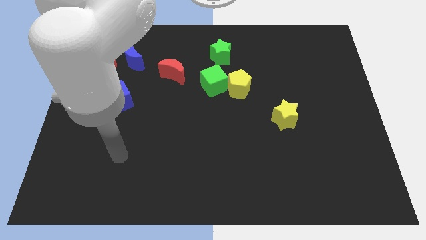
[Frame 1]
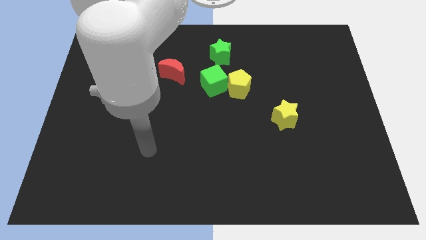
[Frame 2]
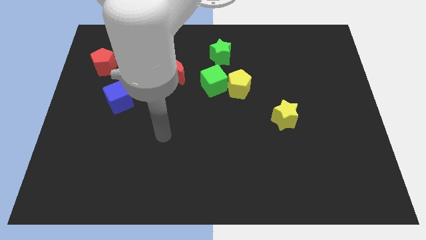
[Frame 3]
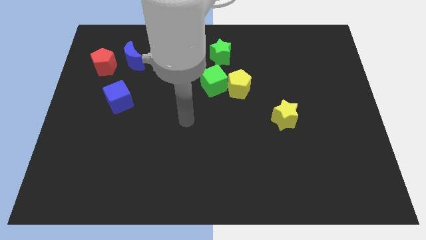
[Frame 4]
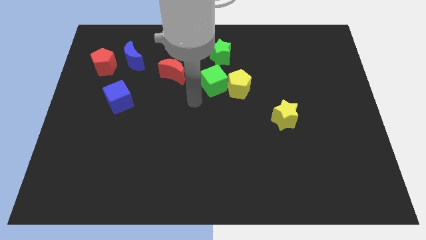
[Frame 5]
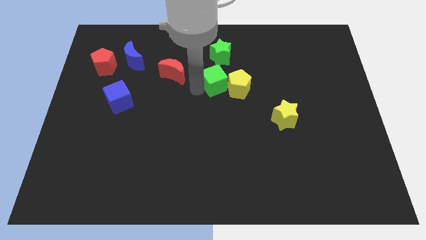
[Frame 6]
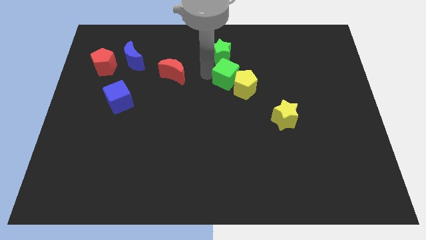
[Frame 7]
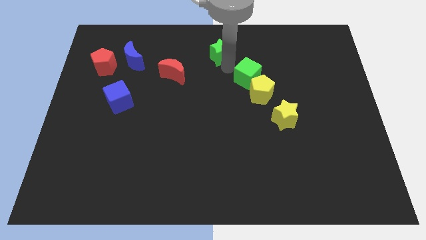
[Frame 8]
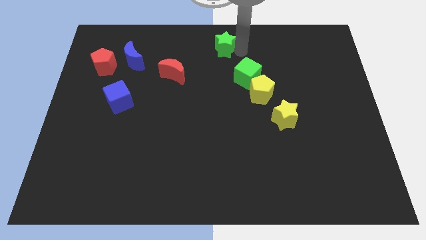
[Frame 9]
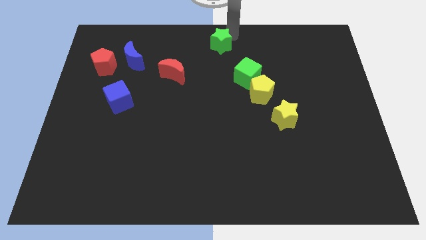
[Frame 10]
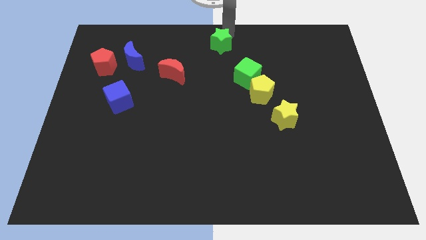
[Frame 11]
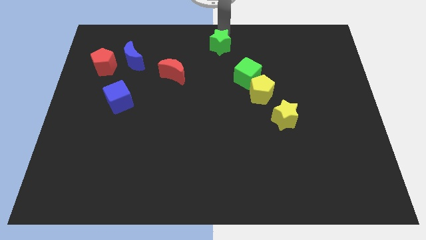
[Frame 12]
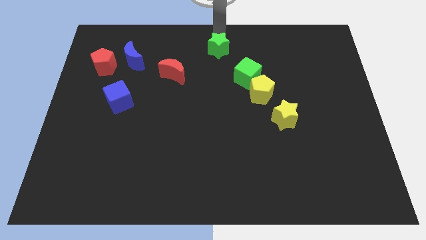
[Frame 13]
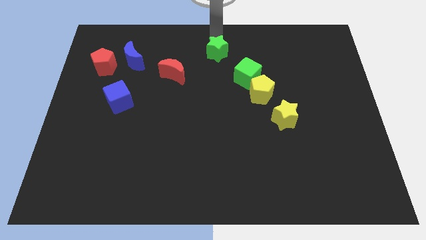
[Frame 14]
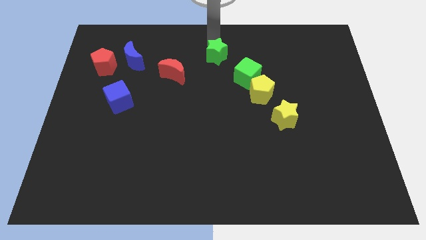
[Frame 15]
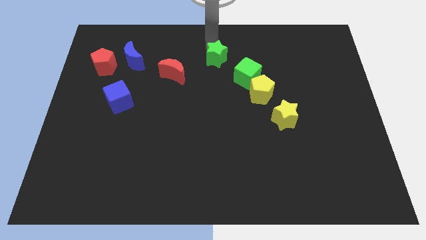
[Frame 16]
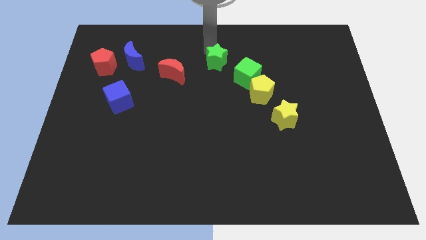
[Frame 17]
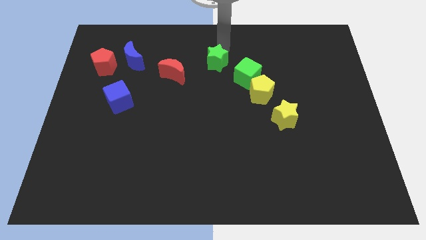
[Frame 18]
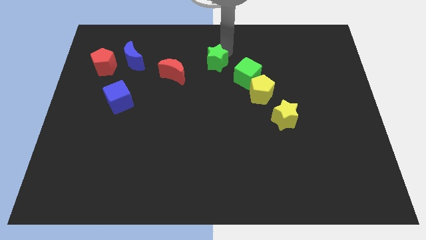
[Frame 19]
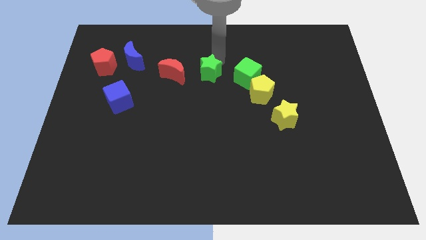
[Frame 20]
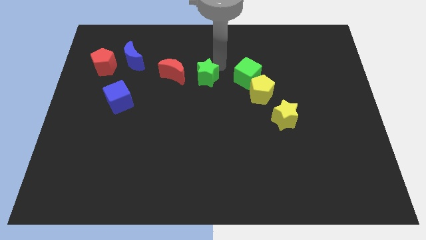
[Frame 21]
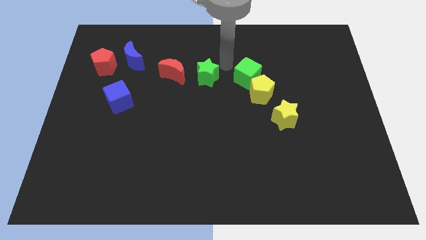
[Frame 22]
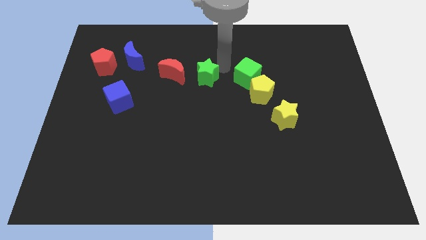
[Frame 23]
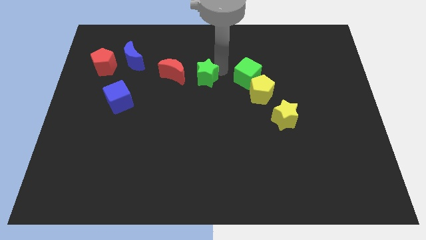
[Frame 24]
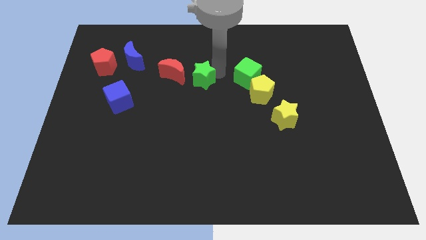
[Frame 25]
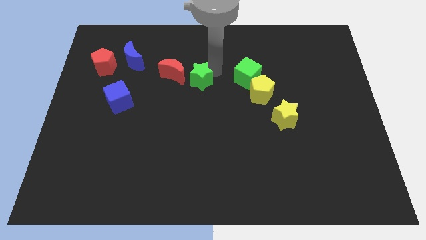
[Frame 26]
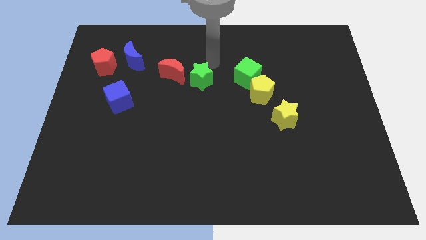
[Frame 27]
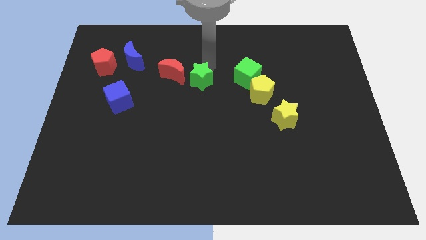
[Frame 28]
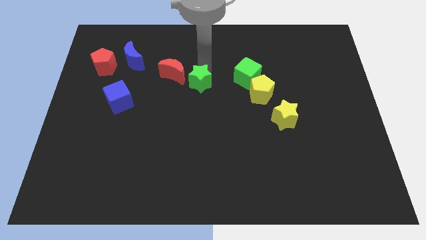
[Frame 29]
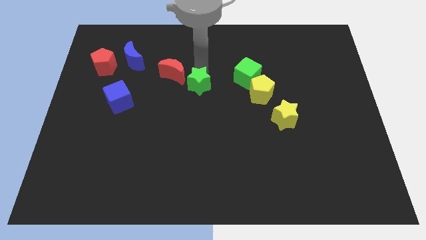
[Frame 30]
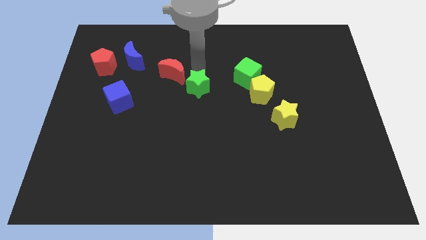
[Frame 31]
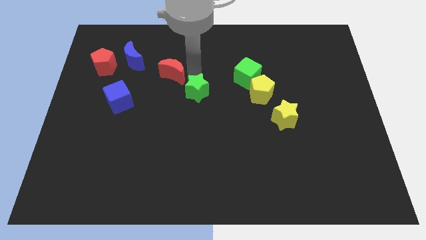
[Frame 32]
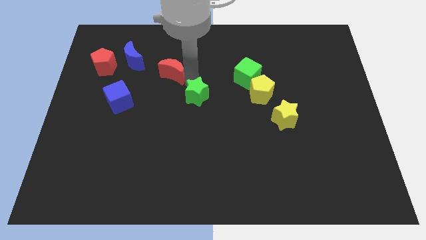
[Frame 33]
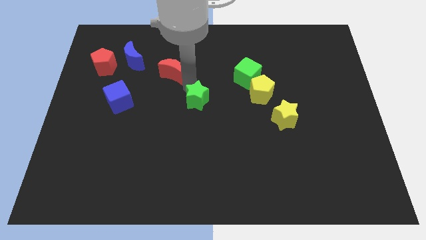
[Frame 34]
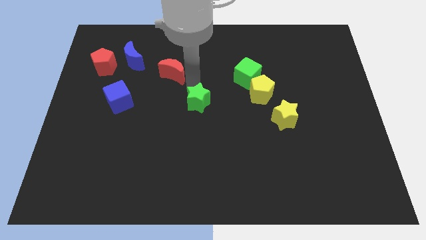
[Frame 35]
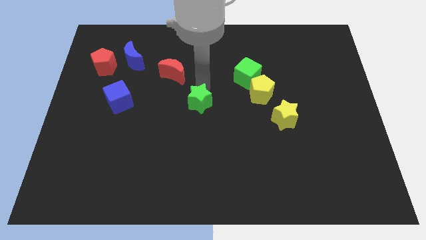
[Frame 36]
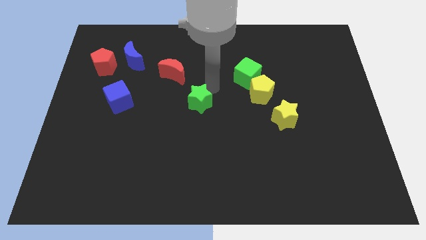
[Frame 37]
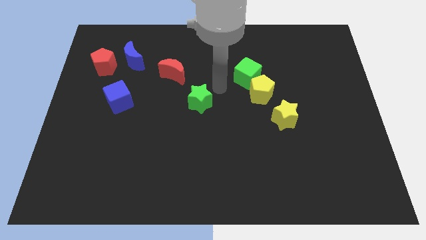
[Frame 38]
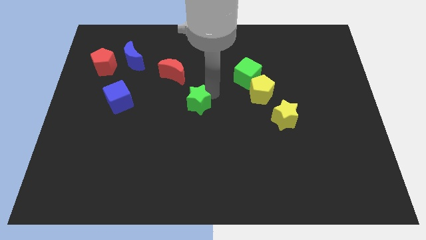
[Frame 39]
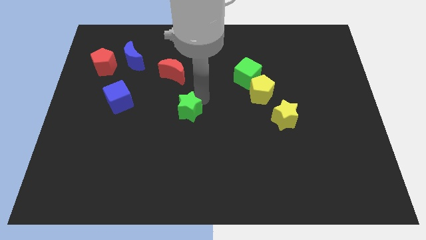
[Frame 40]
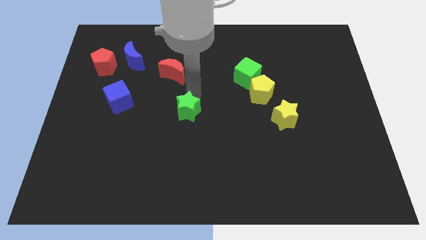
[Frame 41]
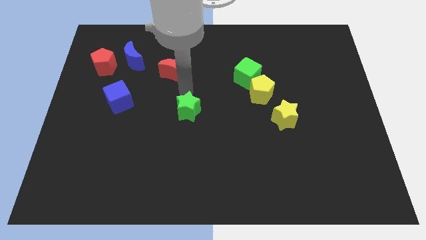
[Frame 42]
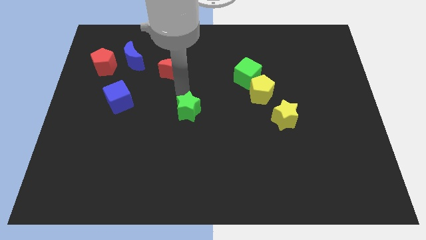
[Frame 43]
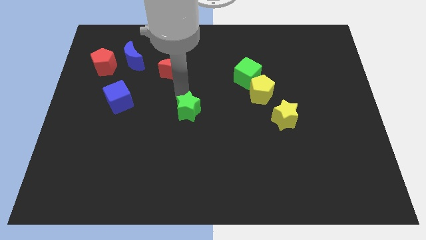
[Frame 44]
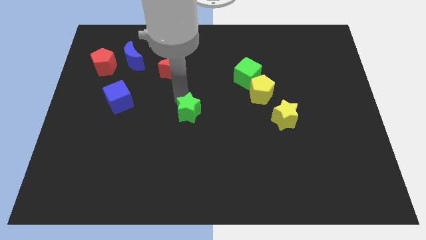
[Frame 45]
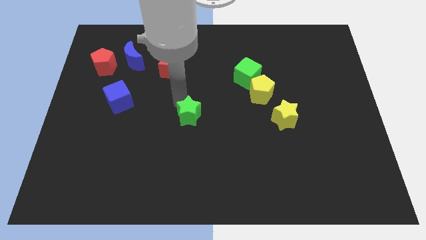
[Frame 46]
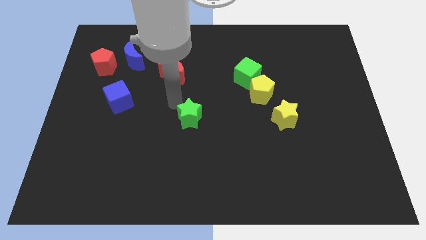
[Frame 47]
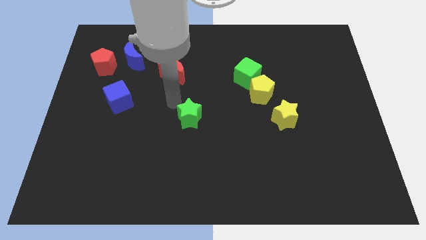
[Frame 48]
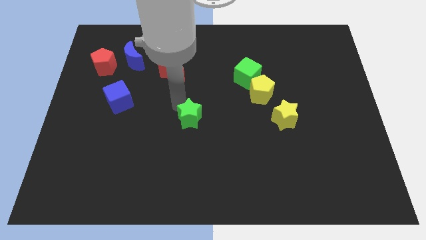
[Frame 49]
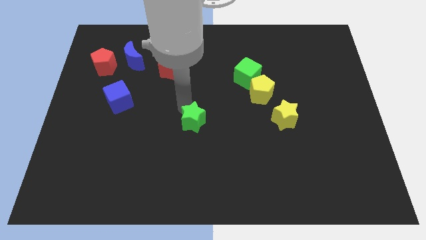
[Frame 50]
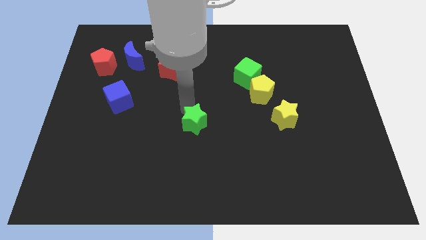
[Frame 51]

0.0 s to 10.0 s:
move the green star down

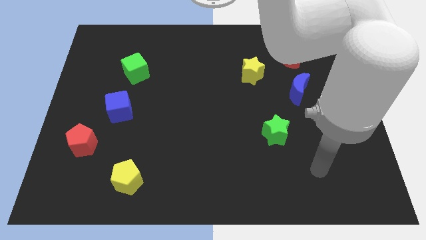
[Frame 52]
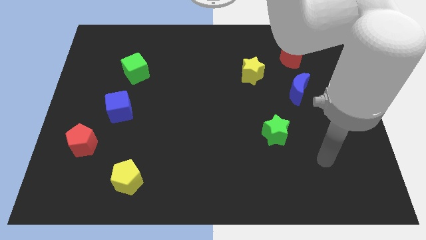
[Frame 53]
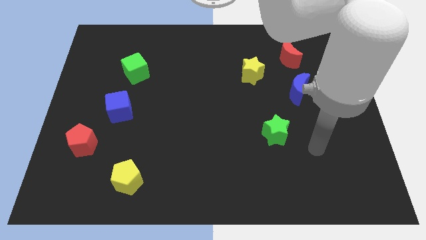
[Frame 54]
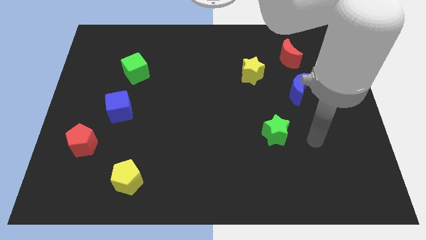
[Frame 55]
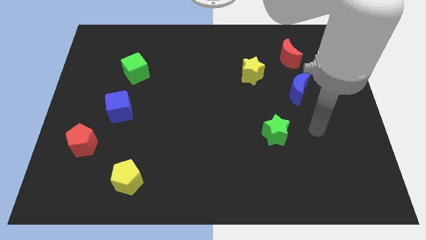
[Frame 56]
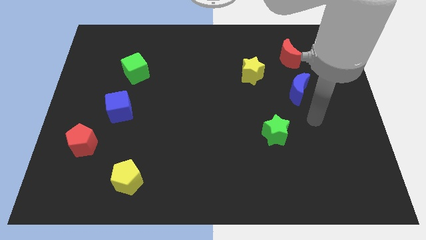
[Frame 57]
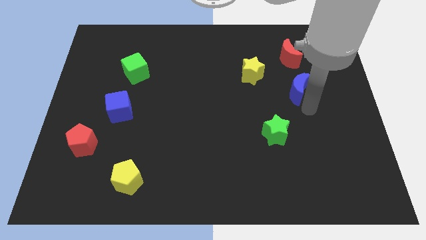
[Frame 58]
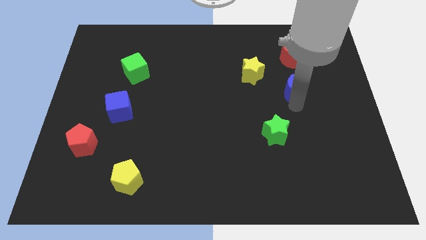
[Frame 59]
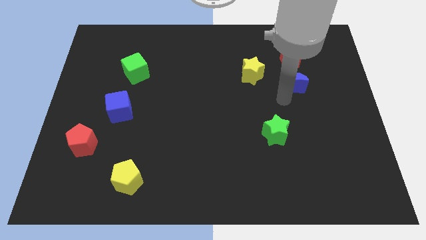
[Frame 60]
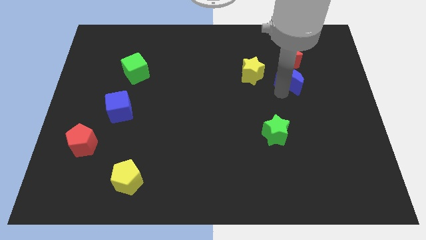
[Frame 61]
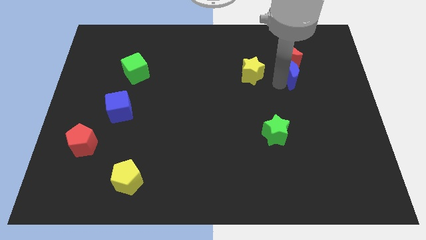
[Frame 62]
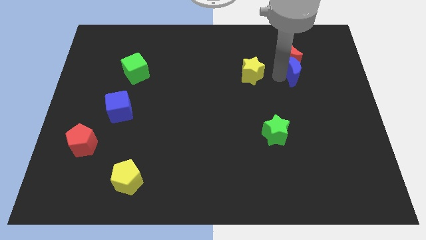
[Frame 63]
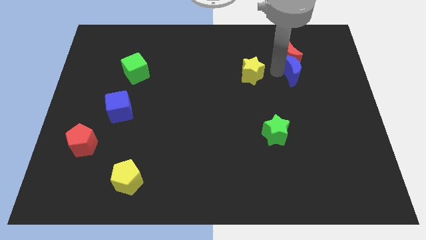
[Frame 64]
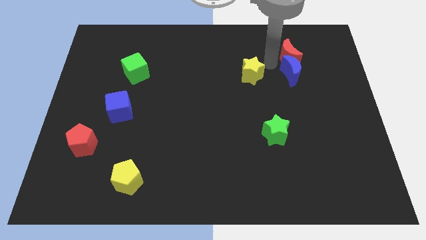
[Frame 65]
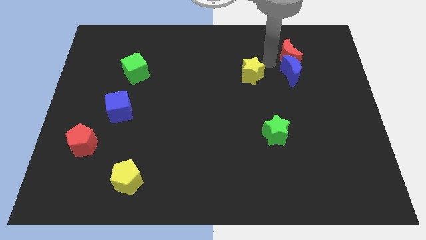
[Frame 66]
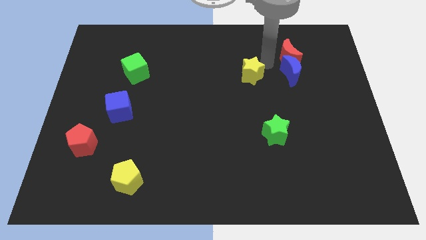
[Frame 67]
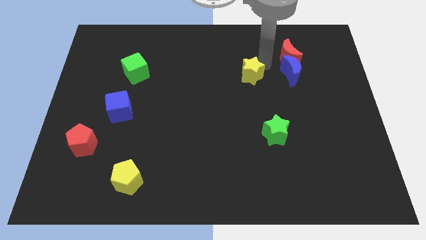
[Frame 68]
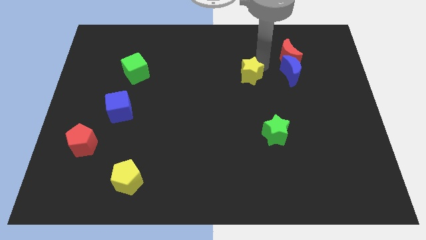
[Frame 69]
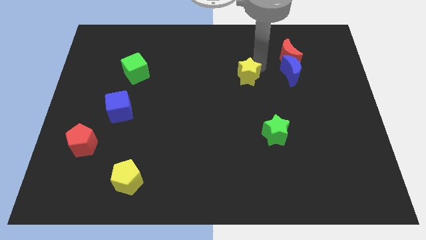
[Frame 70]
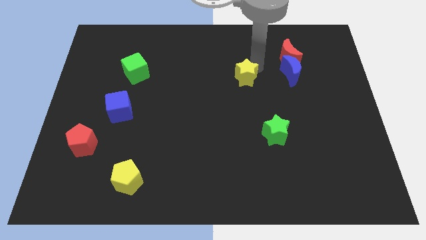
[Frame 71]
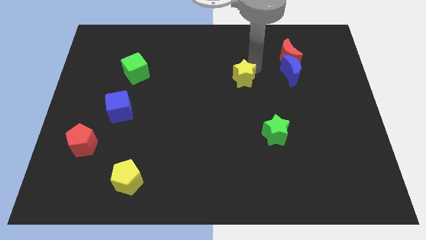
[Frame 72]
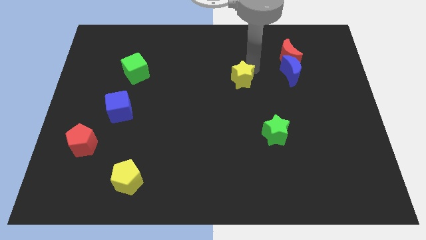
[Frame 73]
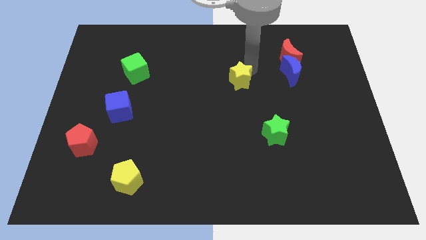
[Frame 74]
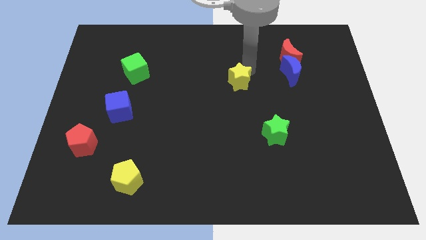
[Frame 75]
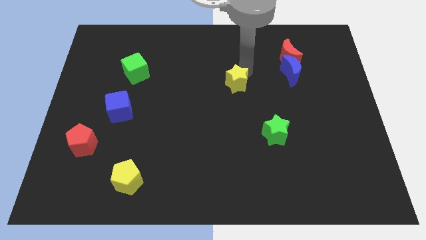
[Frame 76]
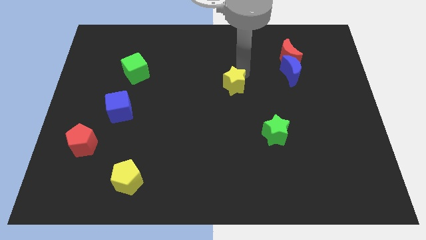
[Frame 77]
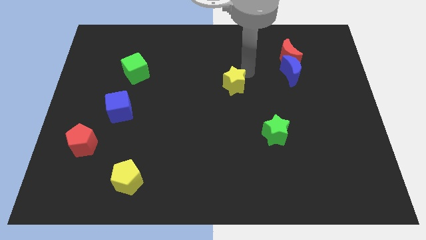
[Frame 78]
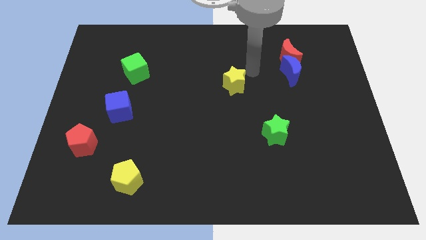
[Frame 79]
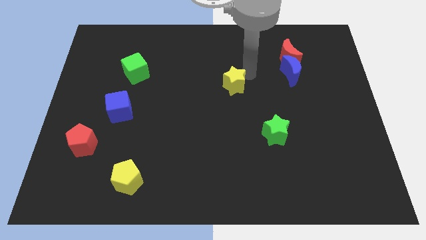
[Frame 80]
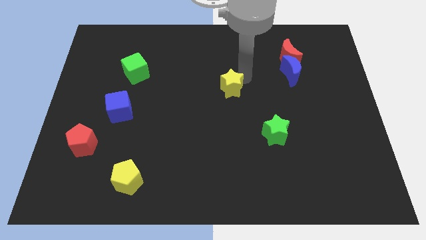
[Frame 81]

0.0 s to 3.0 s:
push the yellow star a little downwards and left diagonally

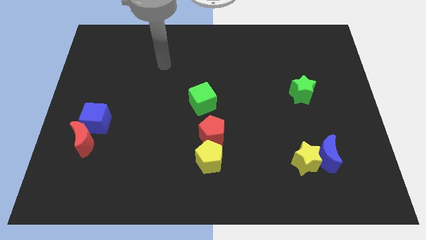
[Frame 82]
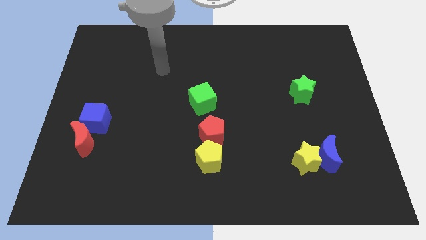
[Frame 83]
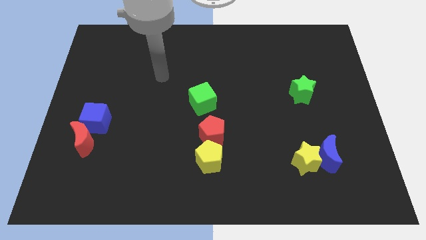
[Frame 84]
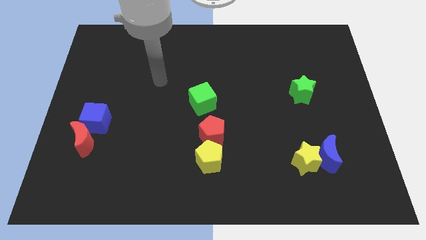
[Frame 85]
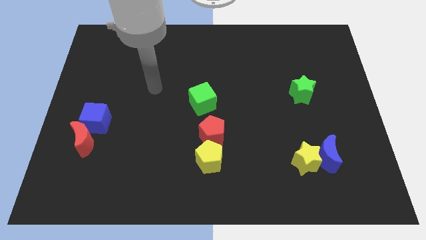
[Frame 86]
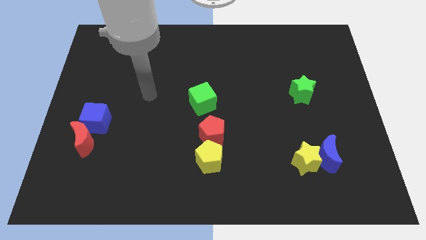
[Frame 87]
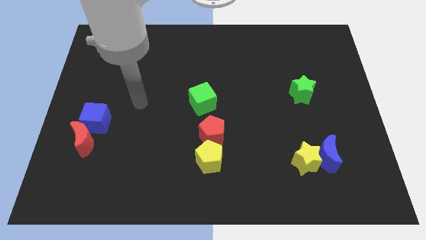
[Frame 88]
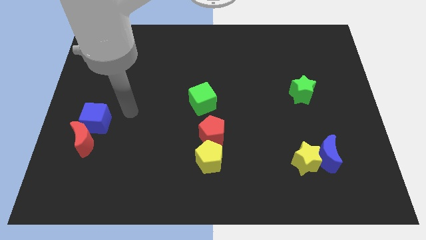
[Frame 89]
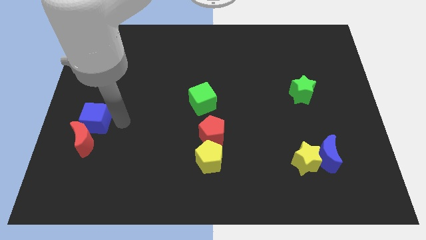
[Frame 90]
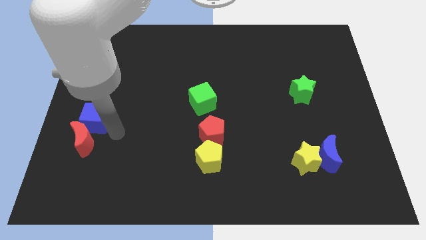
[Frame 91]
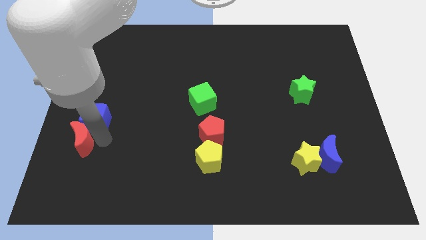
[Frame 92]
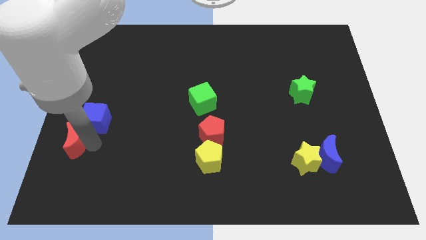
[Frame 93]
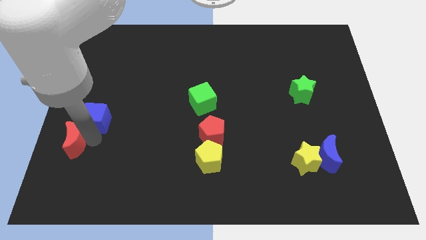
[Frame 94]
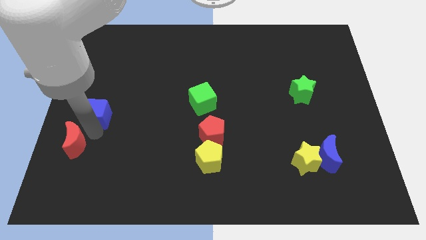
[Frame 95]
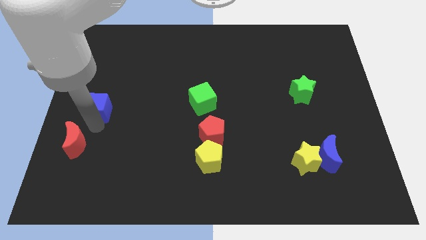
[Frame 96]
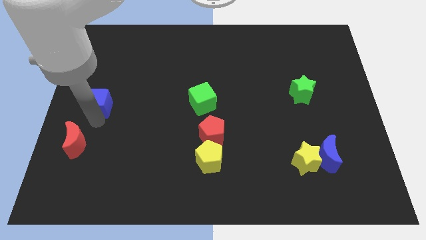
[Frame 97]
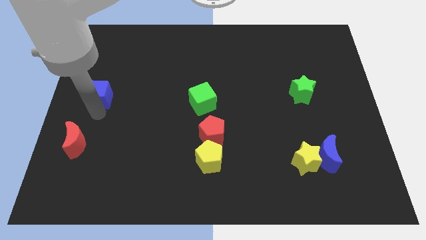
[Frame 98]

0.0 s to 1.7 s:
slightly push the blue cube up
